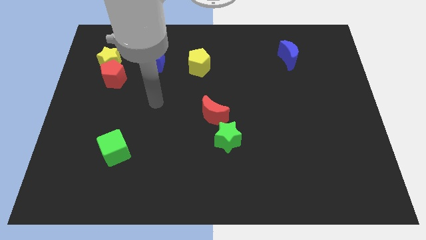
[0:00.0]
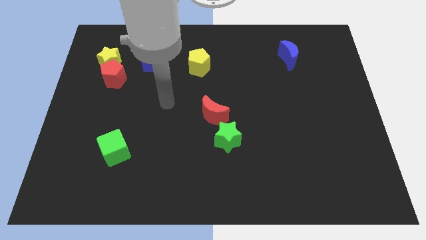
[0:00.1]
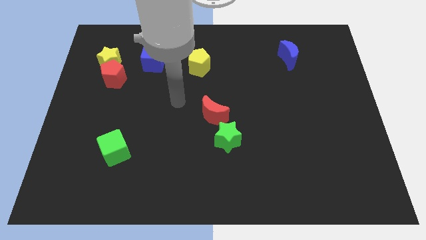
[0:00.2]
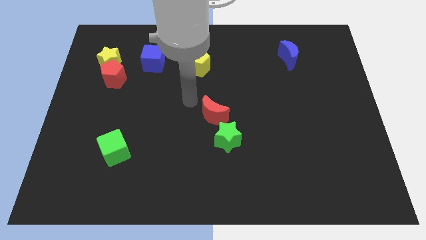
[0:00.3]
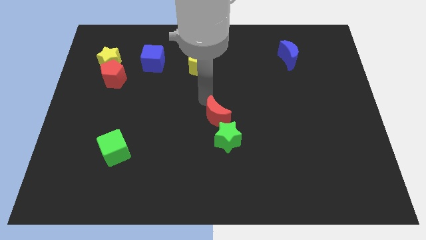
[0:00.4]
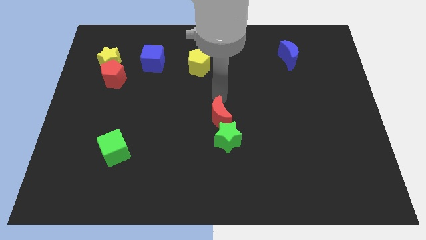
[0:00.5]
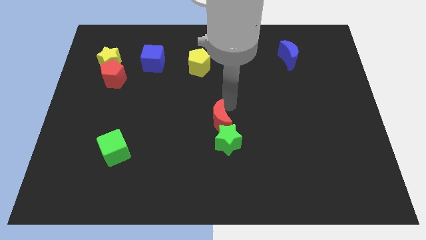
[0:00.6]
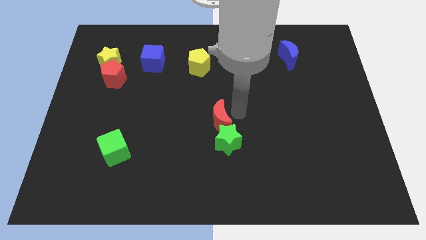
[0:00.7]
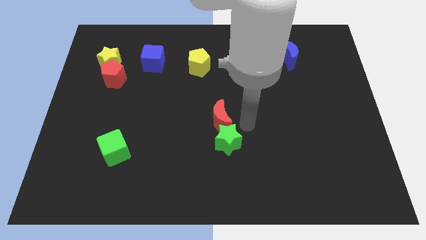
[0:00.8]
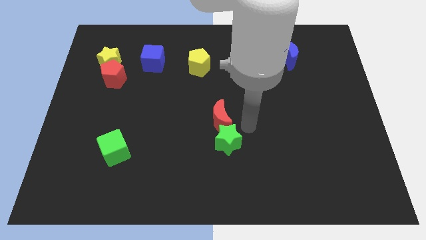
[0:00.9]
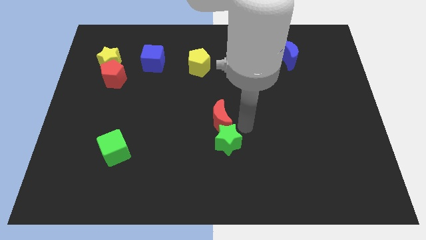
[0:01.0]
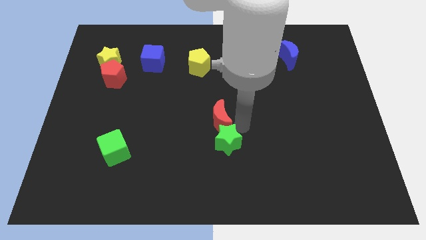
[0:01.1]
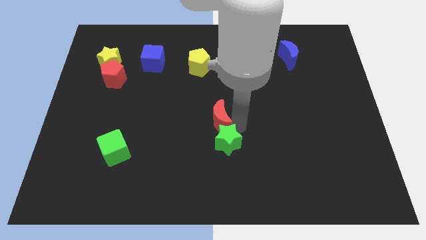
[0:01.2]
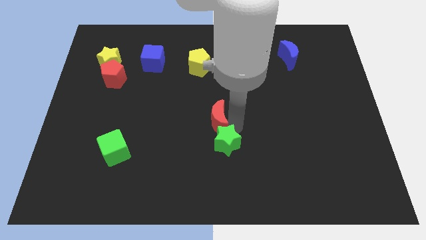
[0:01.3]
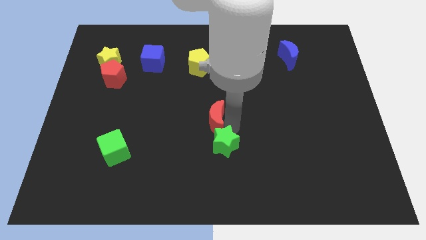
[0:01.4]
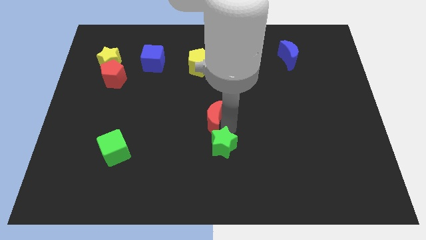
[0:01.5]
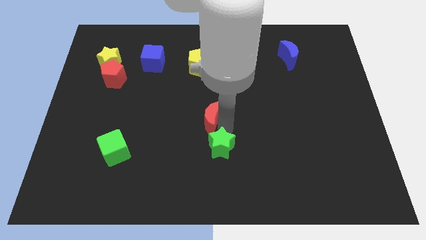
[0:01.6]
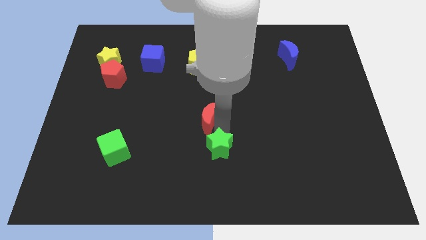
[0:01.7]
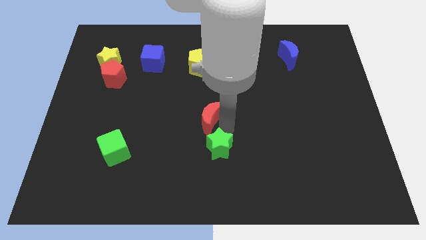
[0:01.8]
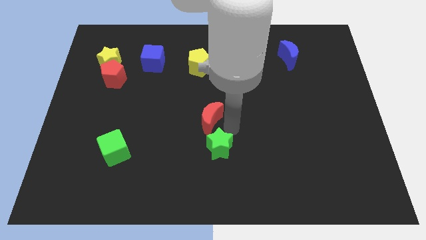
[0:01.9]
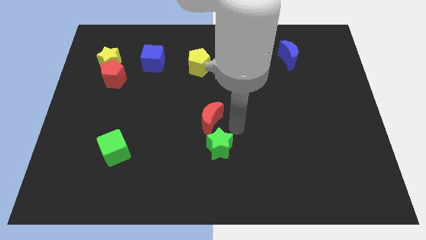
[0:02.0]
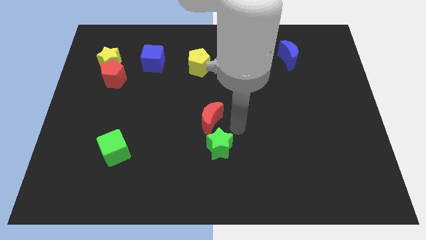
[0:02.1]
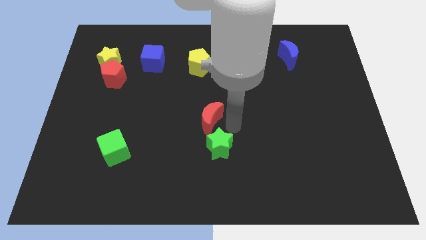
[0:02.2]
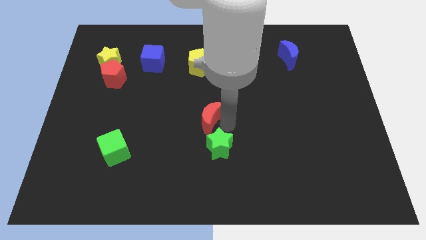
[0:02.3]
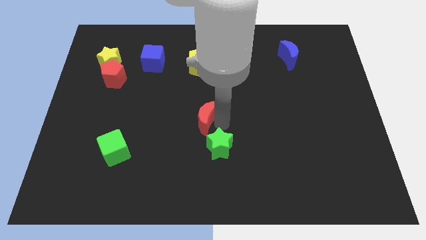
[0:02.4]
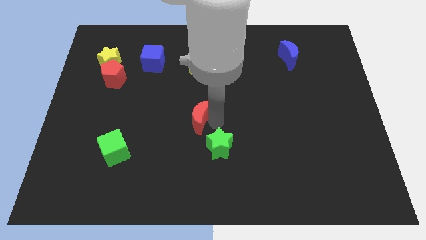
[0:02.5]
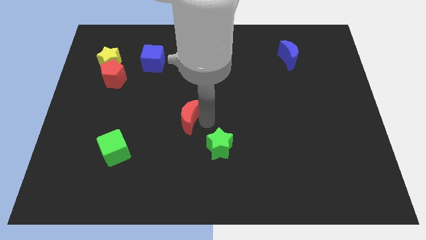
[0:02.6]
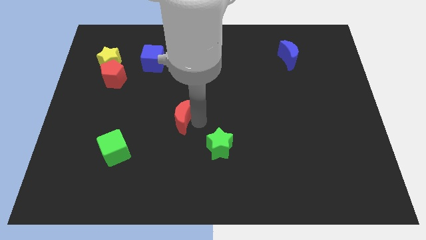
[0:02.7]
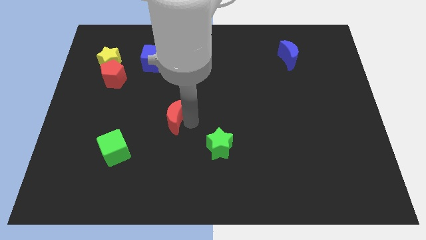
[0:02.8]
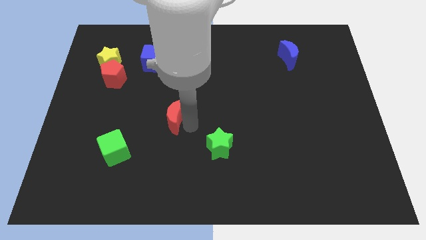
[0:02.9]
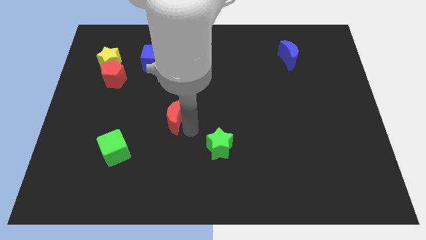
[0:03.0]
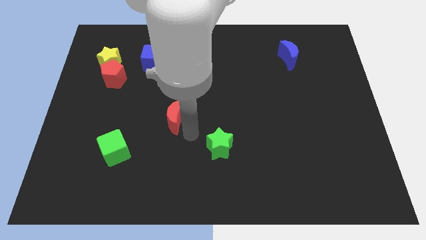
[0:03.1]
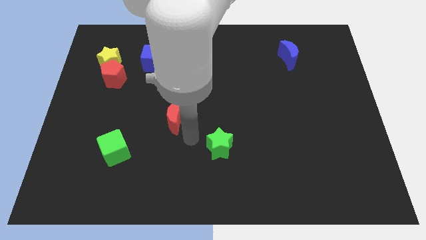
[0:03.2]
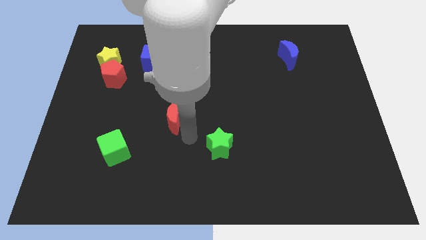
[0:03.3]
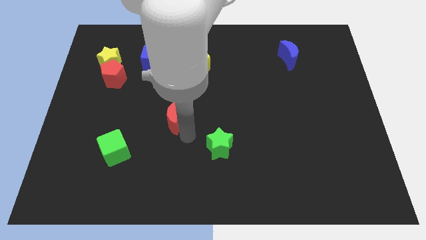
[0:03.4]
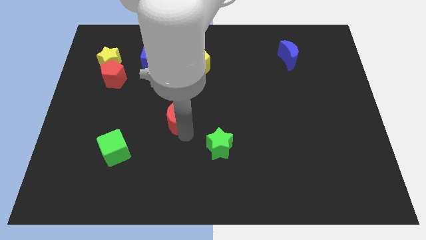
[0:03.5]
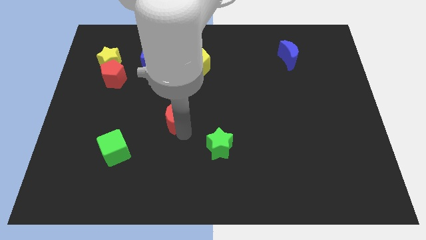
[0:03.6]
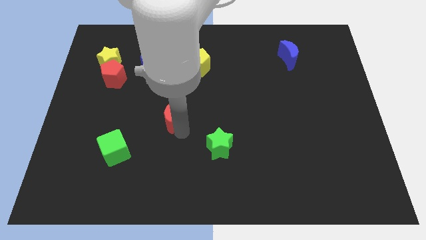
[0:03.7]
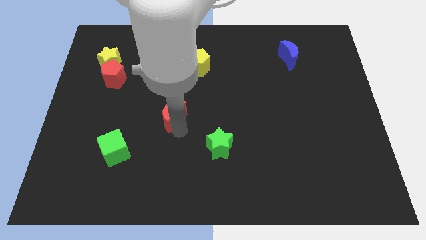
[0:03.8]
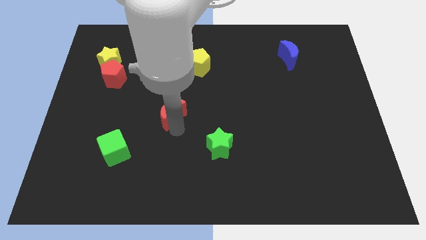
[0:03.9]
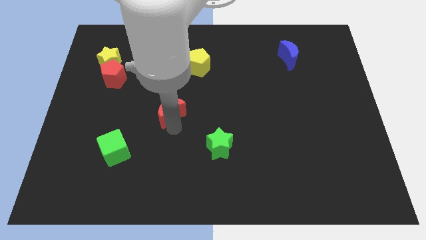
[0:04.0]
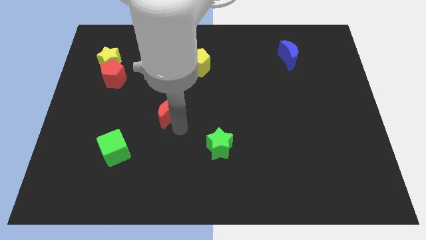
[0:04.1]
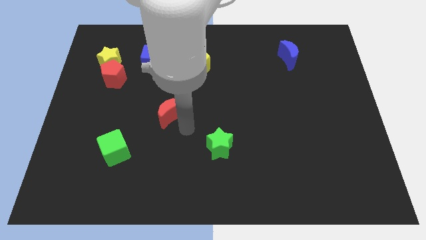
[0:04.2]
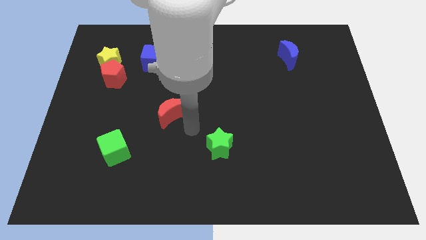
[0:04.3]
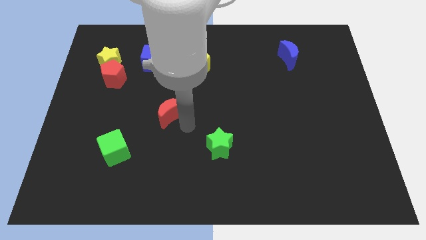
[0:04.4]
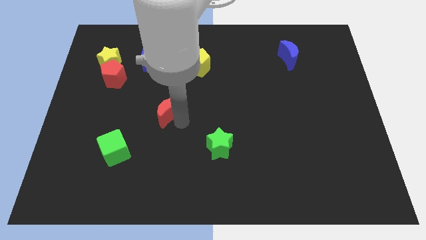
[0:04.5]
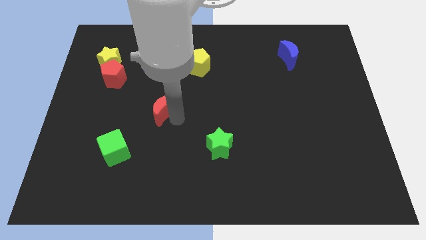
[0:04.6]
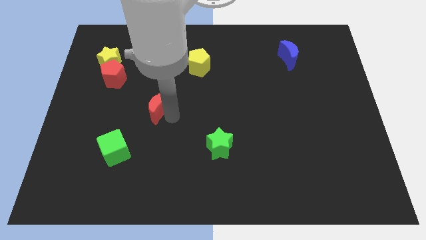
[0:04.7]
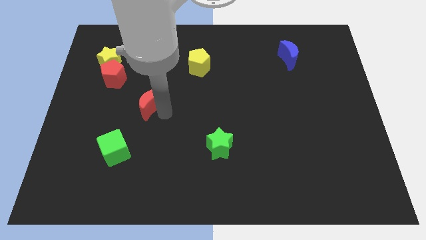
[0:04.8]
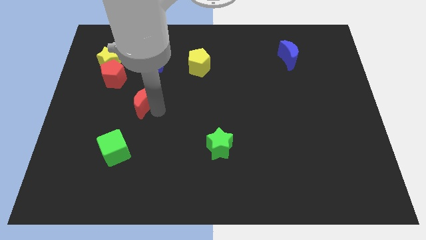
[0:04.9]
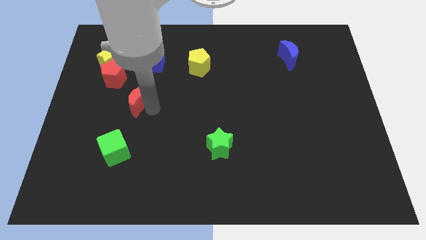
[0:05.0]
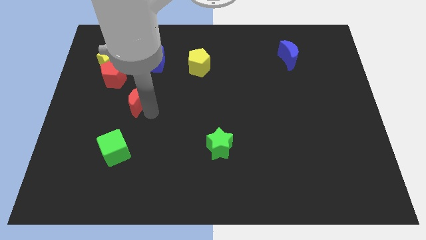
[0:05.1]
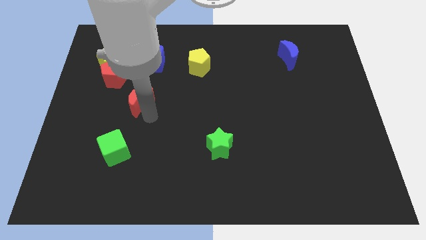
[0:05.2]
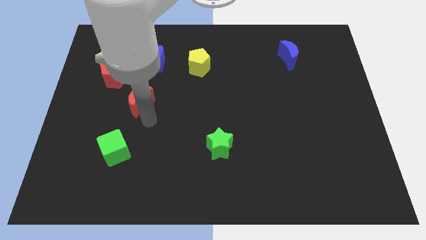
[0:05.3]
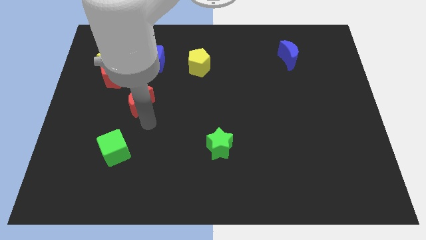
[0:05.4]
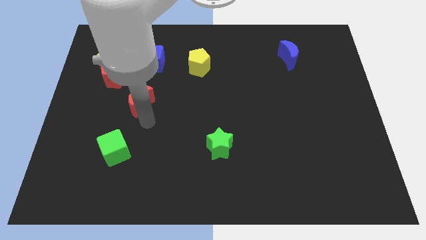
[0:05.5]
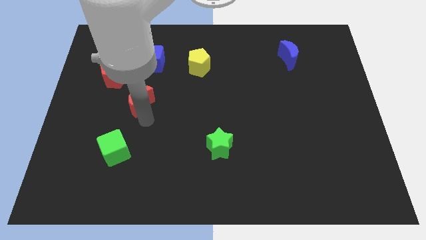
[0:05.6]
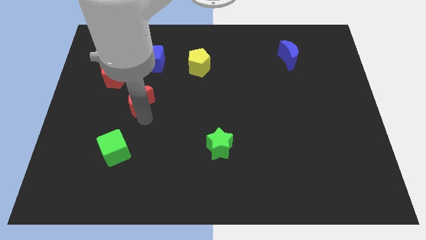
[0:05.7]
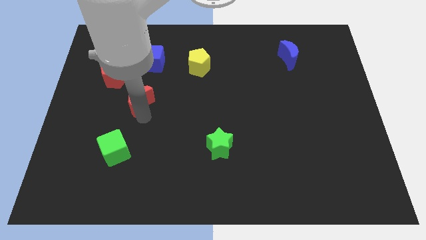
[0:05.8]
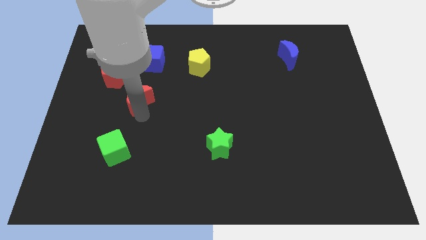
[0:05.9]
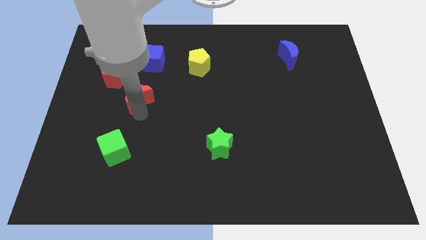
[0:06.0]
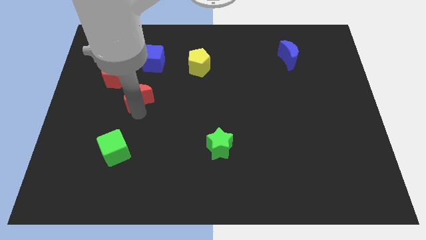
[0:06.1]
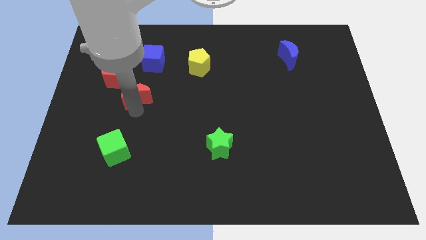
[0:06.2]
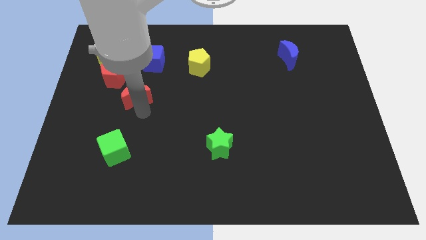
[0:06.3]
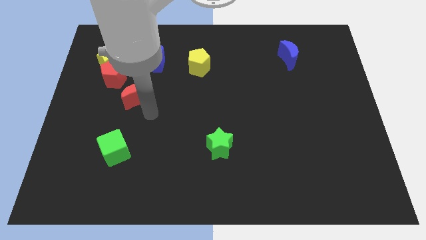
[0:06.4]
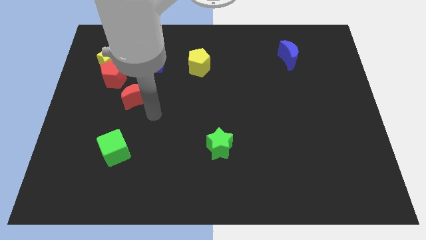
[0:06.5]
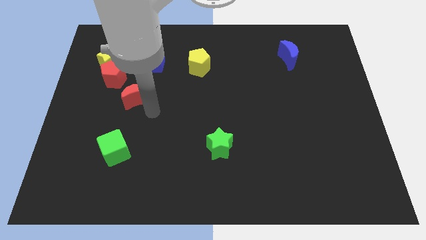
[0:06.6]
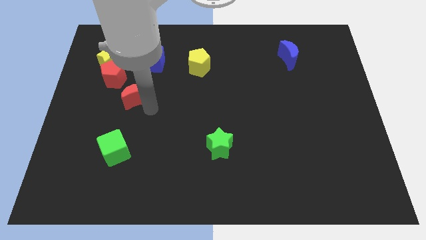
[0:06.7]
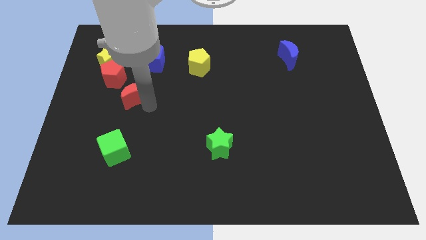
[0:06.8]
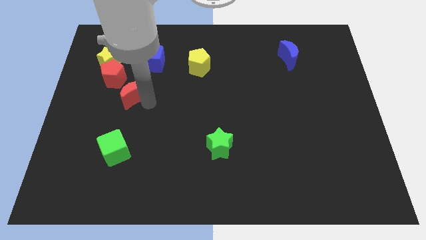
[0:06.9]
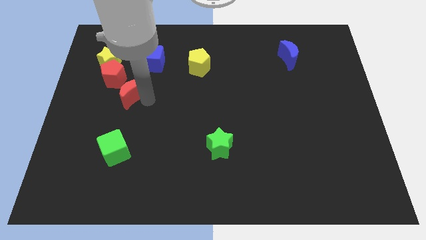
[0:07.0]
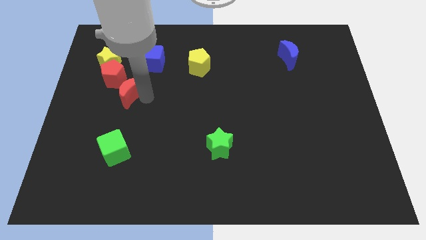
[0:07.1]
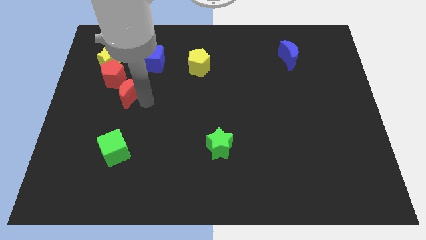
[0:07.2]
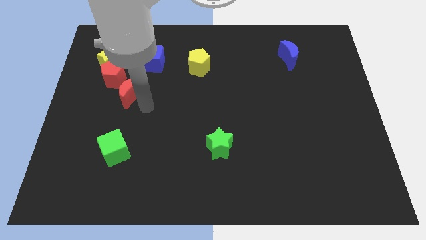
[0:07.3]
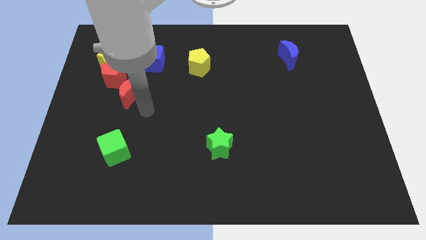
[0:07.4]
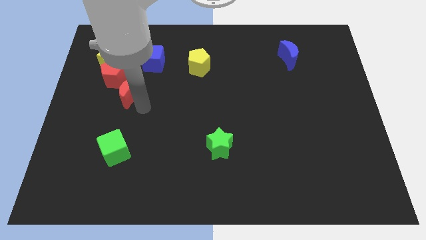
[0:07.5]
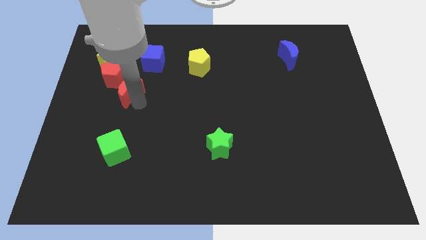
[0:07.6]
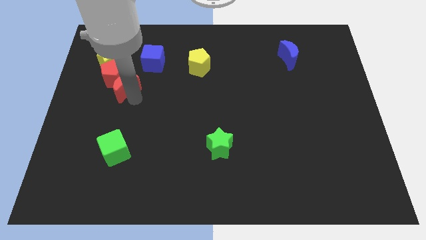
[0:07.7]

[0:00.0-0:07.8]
push the red moon close to the red pentagon
